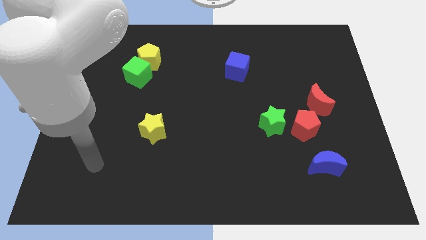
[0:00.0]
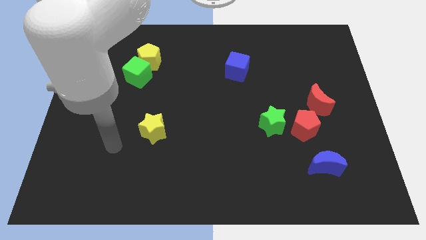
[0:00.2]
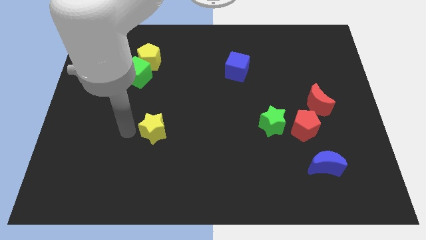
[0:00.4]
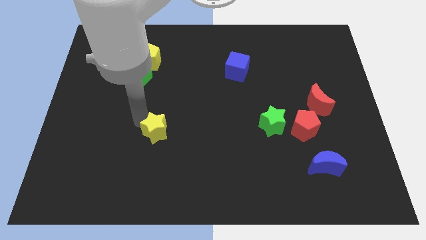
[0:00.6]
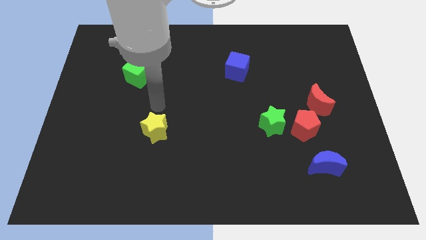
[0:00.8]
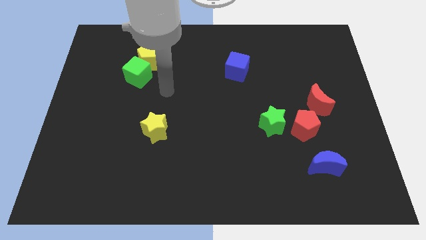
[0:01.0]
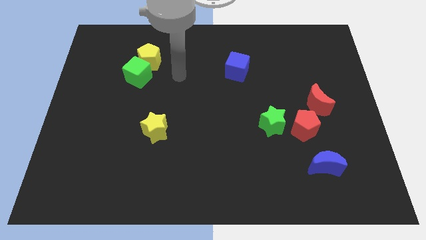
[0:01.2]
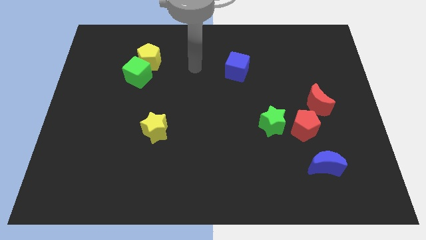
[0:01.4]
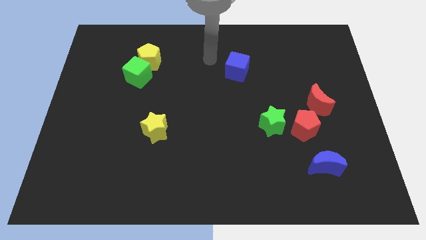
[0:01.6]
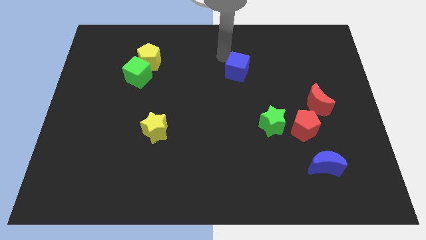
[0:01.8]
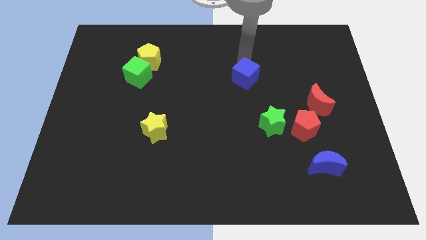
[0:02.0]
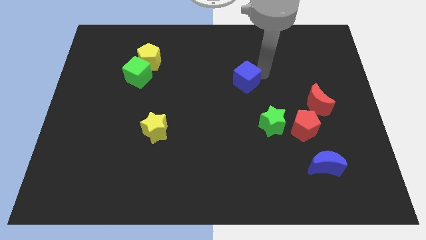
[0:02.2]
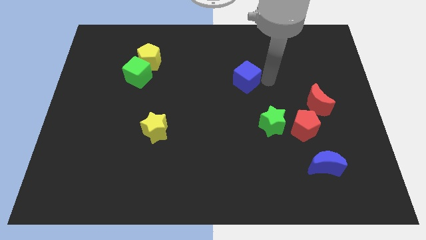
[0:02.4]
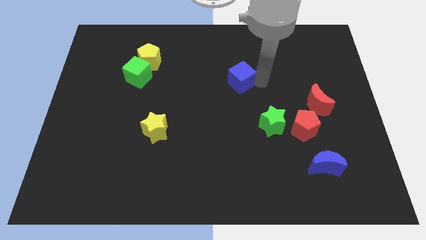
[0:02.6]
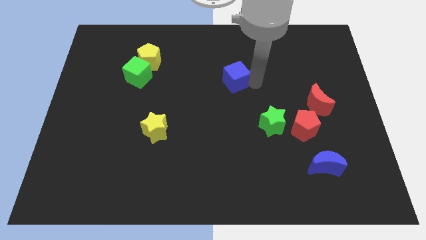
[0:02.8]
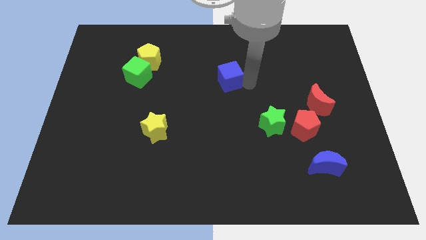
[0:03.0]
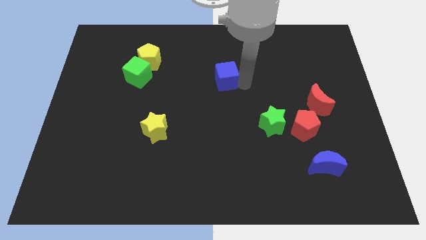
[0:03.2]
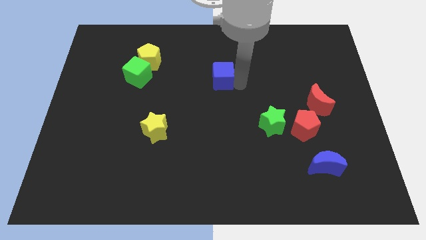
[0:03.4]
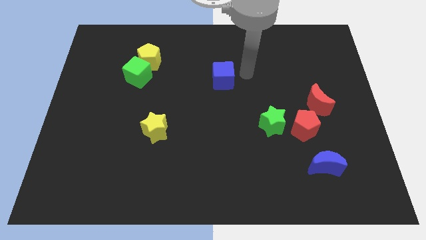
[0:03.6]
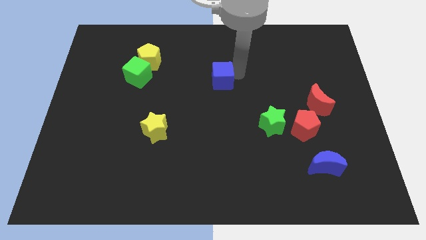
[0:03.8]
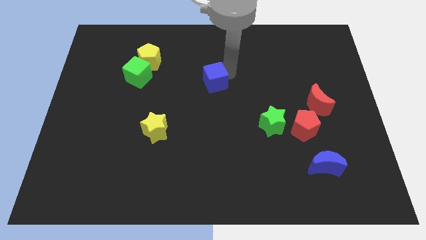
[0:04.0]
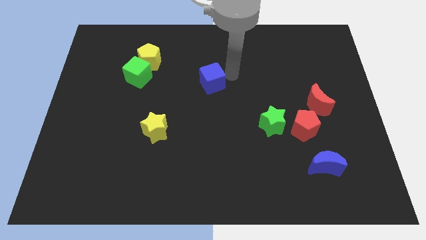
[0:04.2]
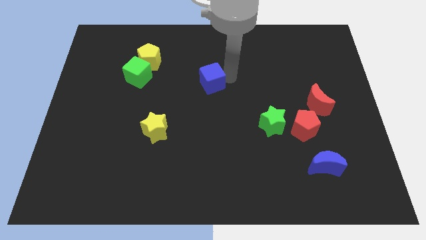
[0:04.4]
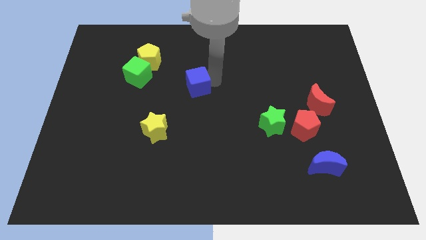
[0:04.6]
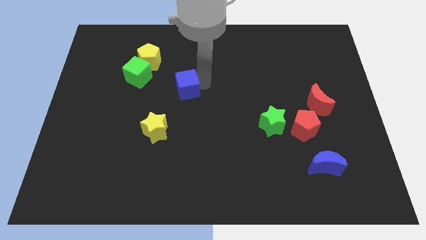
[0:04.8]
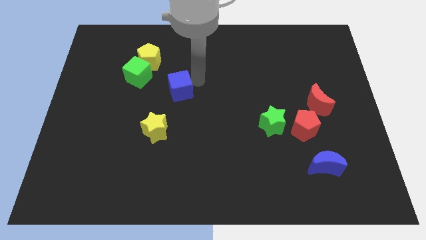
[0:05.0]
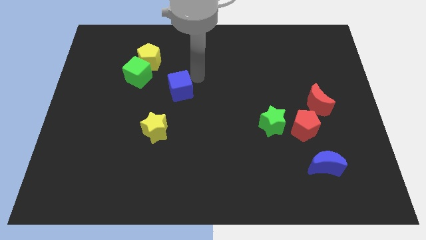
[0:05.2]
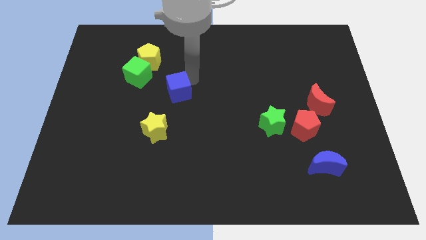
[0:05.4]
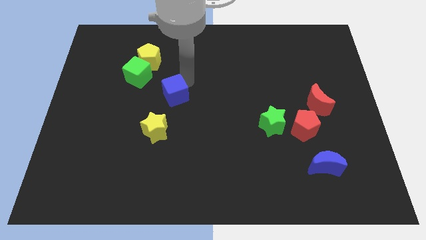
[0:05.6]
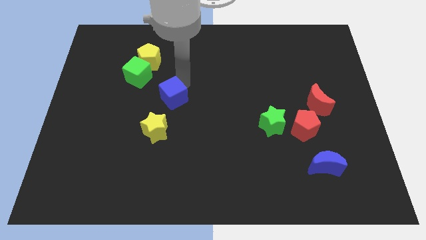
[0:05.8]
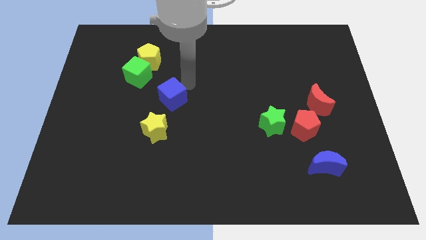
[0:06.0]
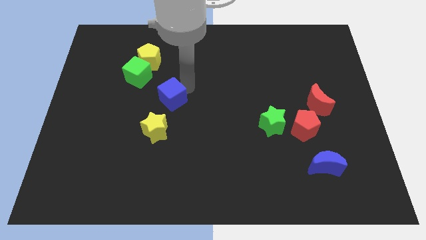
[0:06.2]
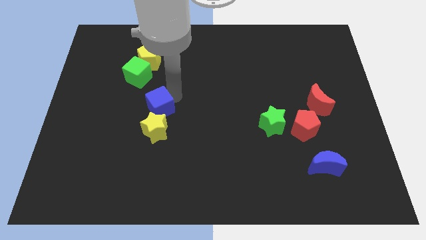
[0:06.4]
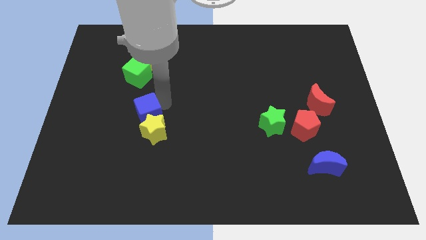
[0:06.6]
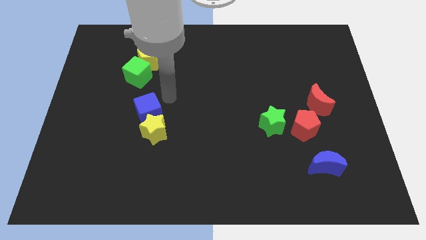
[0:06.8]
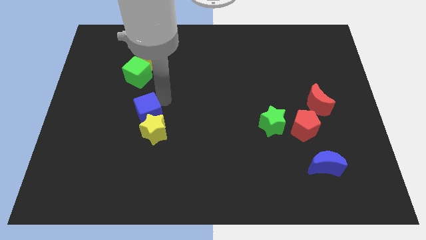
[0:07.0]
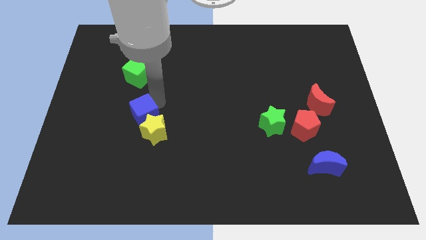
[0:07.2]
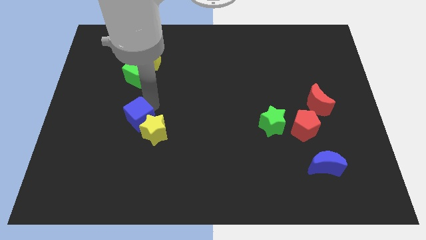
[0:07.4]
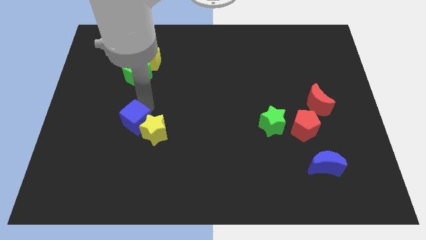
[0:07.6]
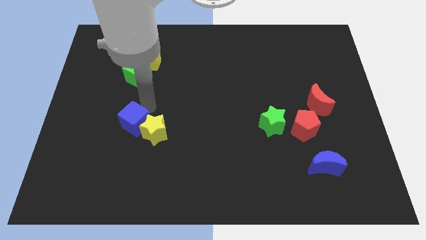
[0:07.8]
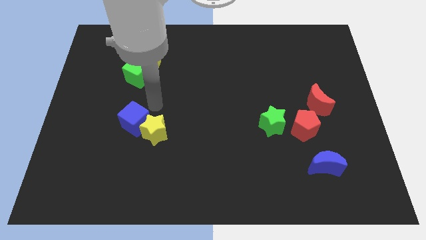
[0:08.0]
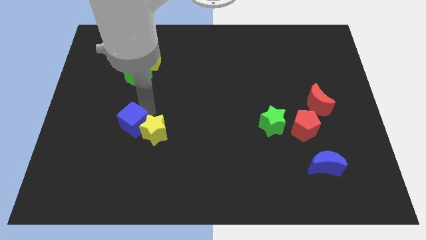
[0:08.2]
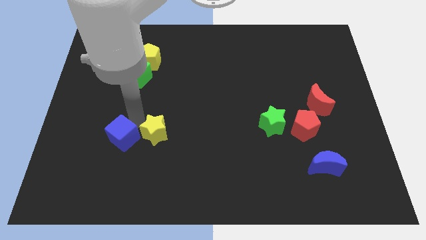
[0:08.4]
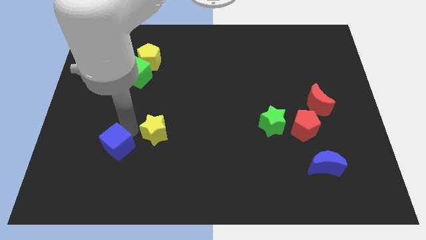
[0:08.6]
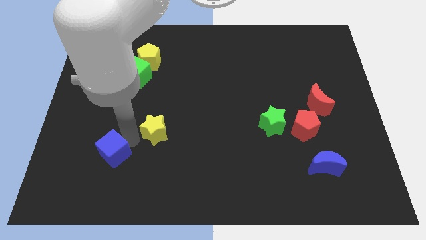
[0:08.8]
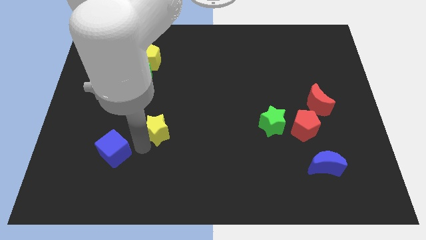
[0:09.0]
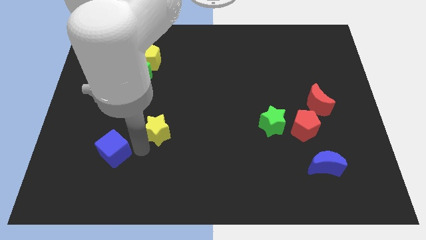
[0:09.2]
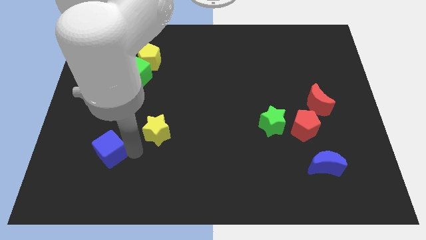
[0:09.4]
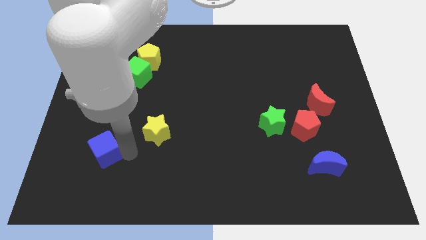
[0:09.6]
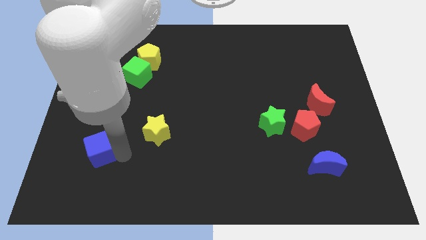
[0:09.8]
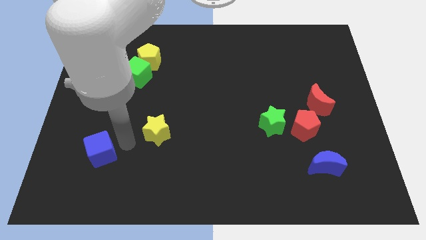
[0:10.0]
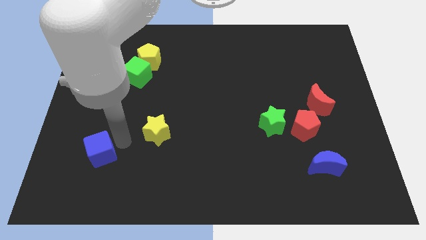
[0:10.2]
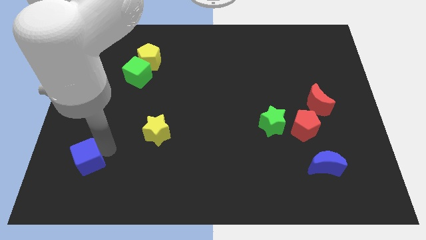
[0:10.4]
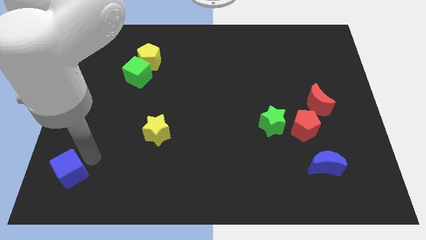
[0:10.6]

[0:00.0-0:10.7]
slide the blue cube to the lower left corner

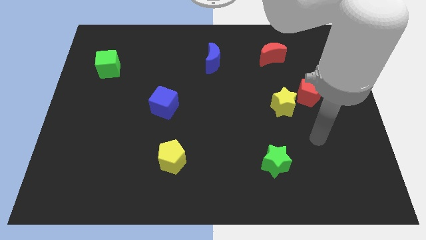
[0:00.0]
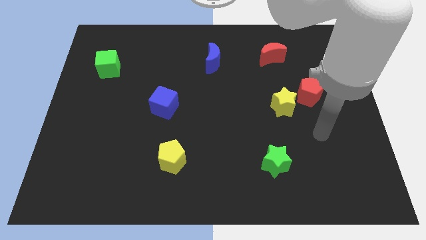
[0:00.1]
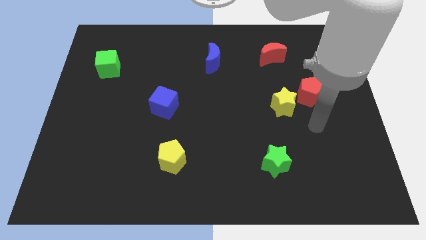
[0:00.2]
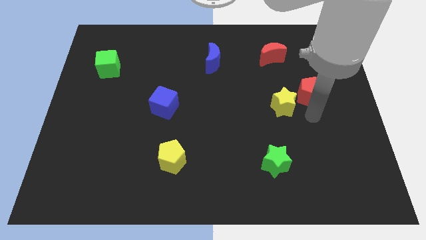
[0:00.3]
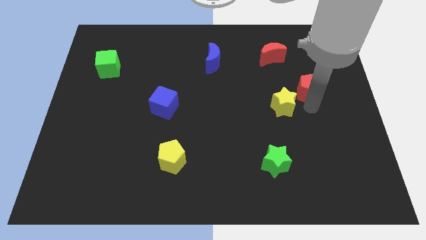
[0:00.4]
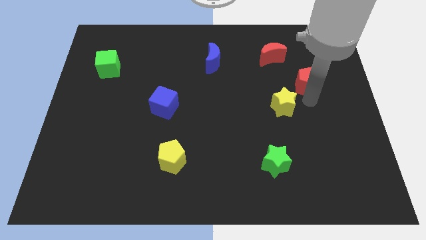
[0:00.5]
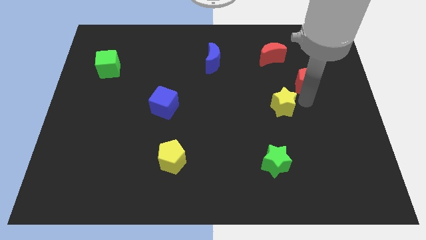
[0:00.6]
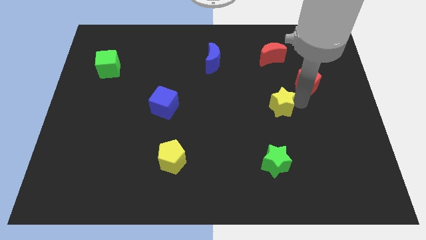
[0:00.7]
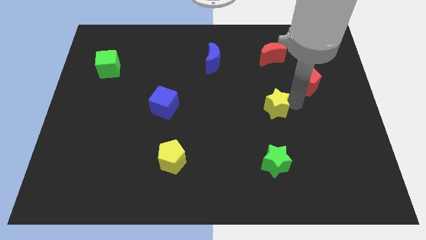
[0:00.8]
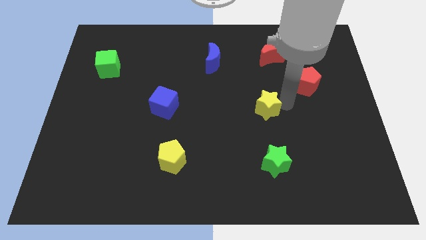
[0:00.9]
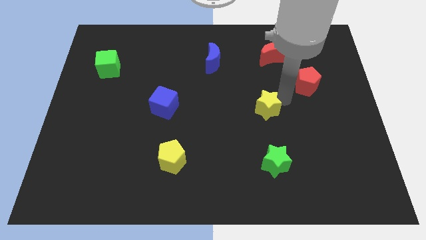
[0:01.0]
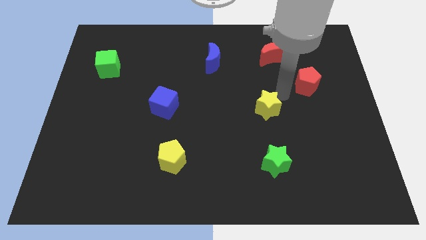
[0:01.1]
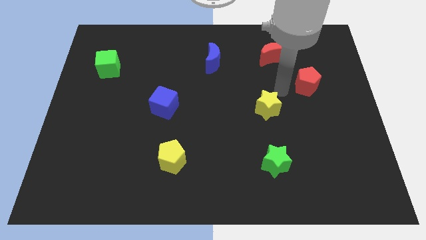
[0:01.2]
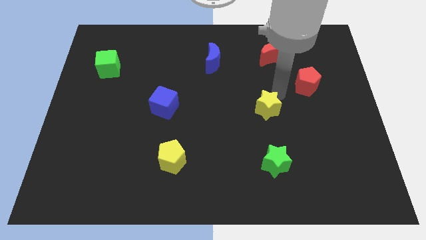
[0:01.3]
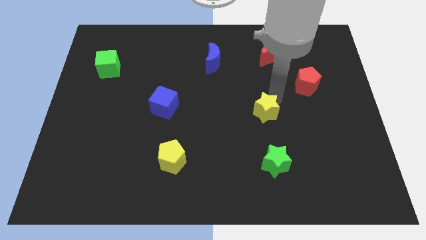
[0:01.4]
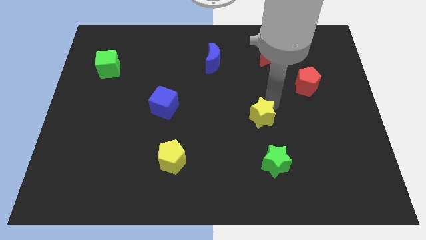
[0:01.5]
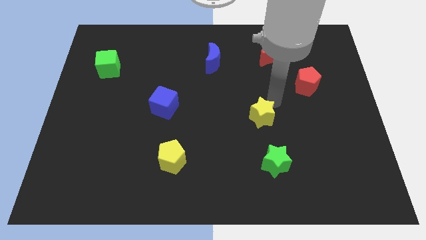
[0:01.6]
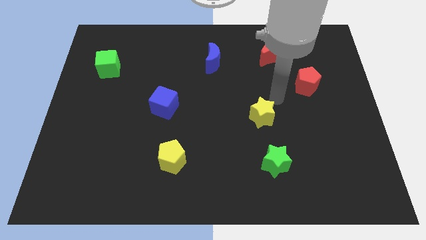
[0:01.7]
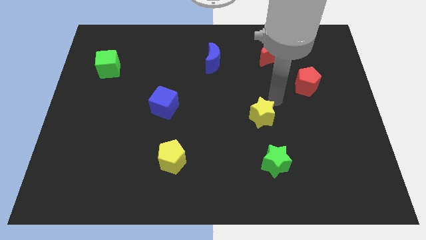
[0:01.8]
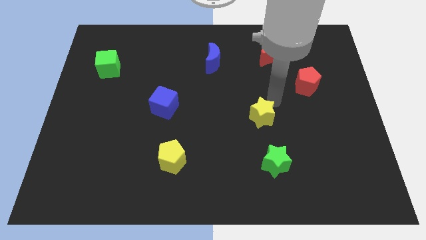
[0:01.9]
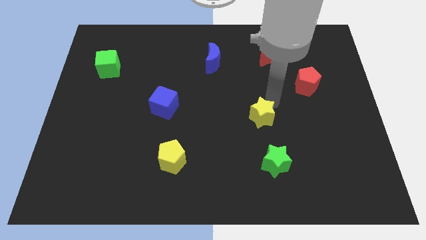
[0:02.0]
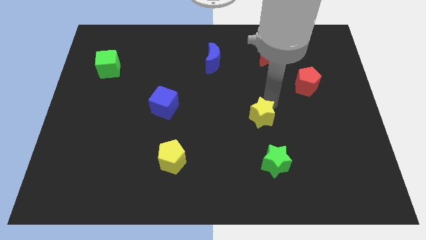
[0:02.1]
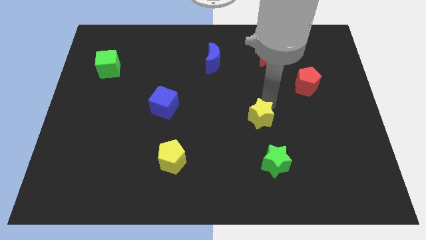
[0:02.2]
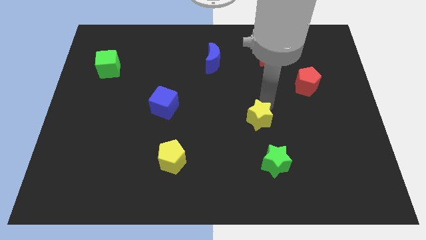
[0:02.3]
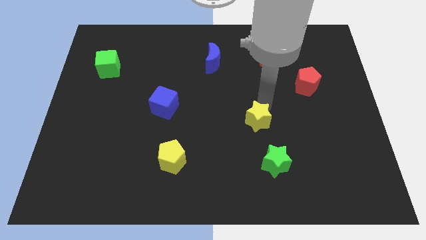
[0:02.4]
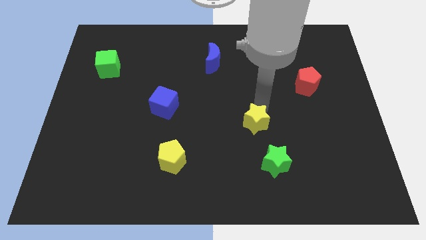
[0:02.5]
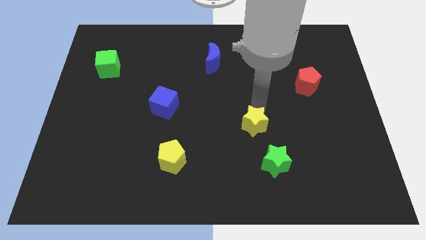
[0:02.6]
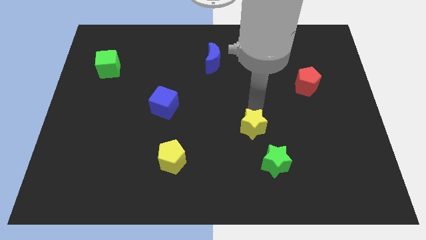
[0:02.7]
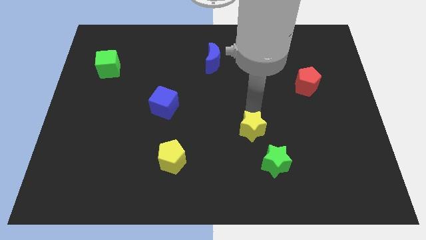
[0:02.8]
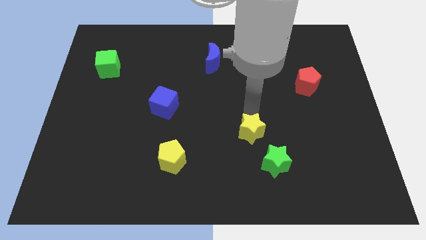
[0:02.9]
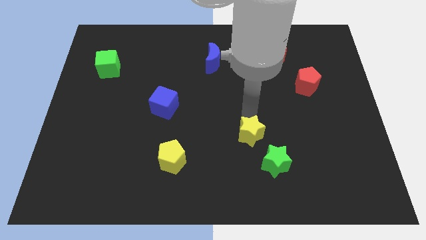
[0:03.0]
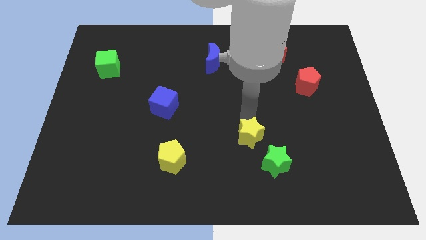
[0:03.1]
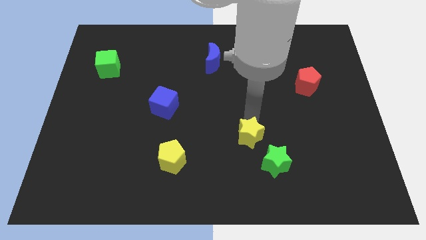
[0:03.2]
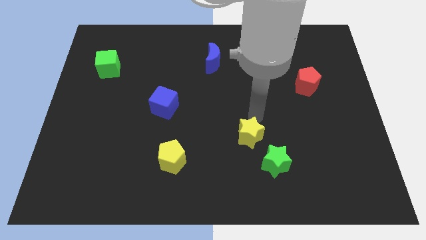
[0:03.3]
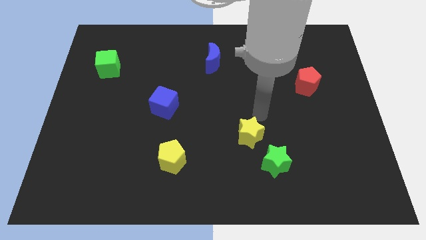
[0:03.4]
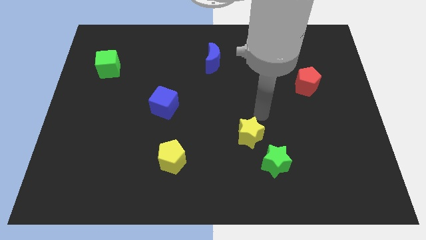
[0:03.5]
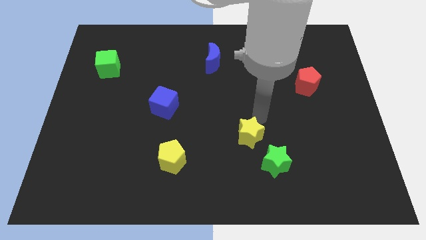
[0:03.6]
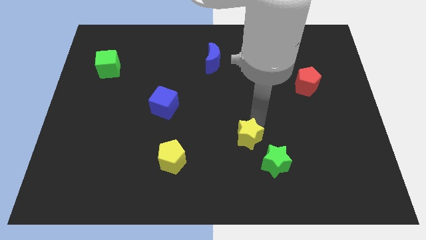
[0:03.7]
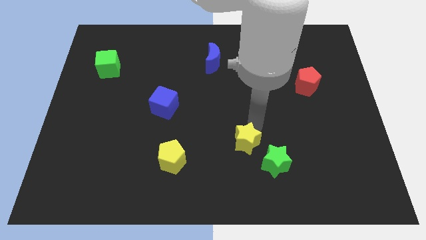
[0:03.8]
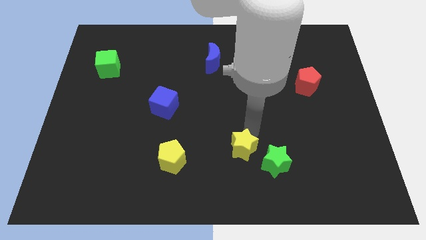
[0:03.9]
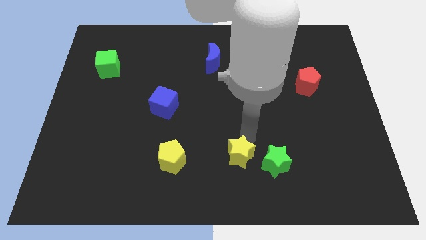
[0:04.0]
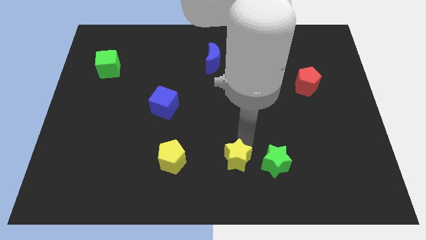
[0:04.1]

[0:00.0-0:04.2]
move the yellow star to the bottom side
